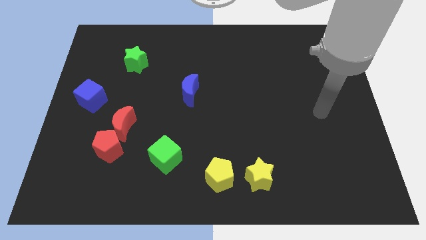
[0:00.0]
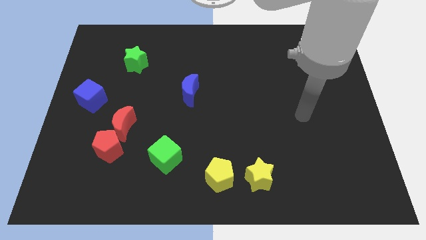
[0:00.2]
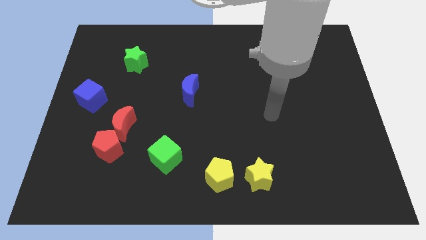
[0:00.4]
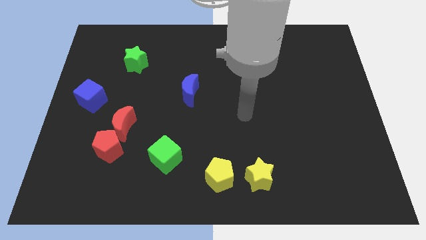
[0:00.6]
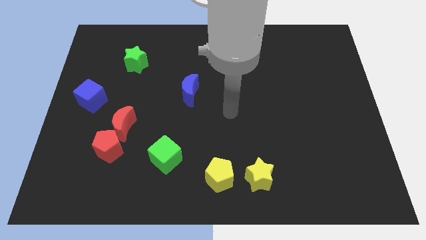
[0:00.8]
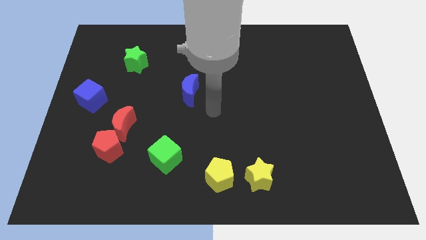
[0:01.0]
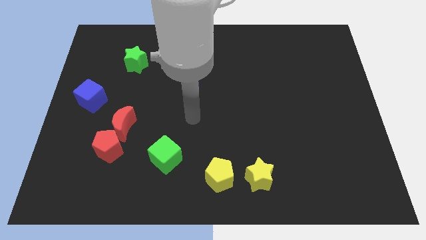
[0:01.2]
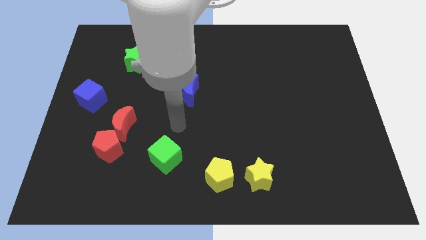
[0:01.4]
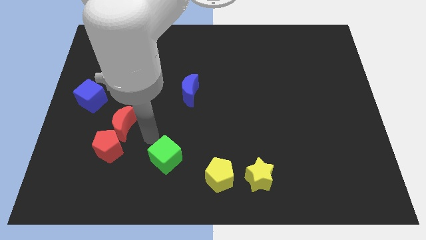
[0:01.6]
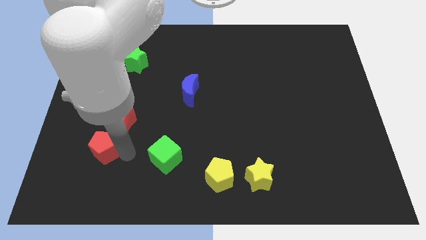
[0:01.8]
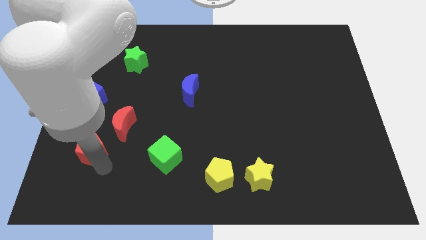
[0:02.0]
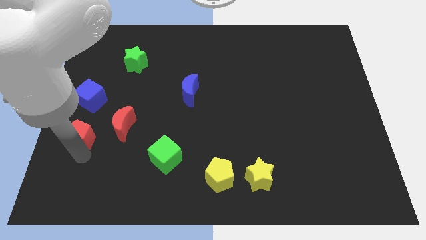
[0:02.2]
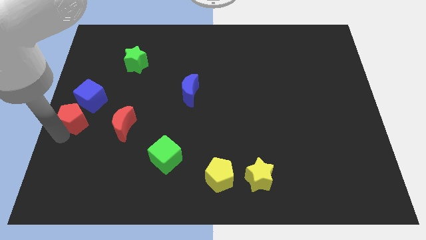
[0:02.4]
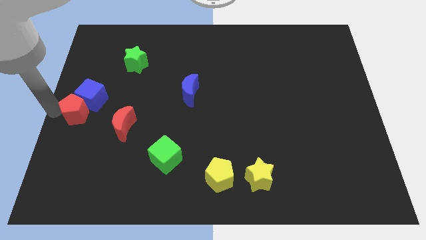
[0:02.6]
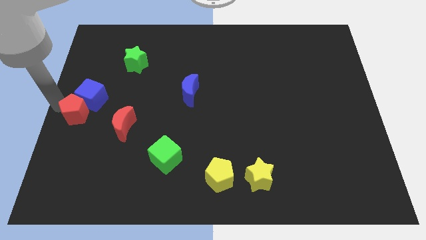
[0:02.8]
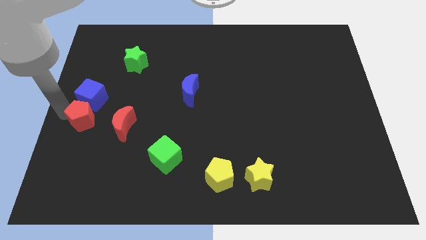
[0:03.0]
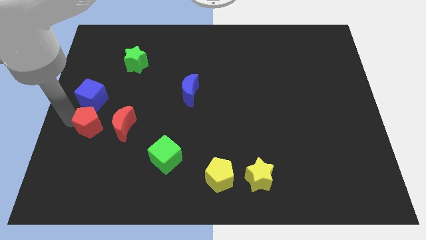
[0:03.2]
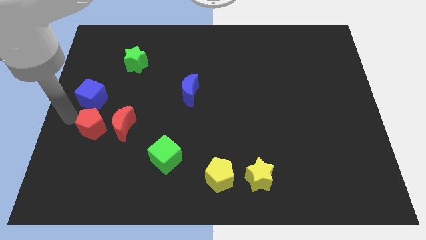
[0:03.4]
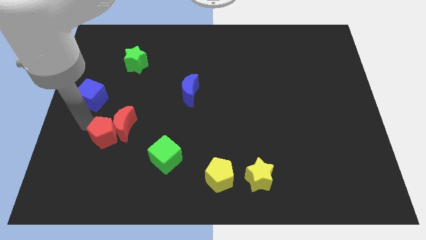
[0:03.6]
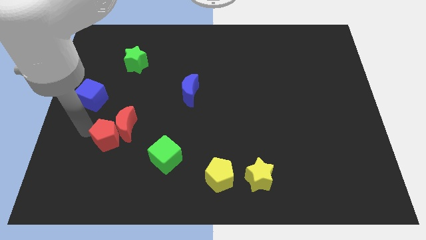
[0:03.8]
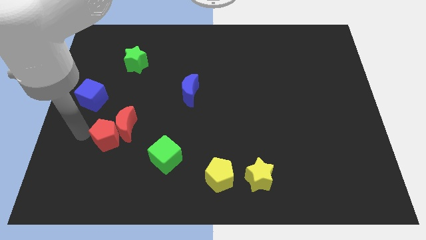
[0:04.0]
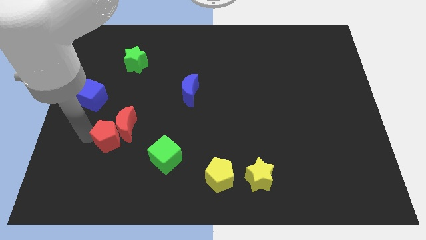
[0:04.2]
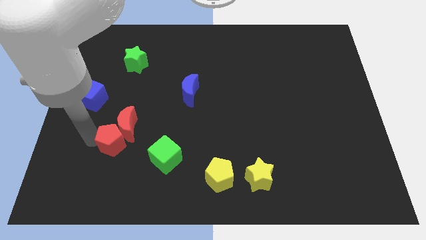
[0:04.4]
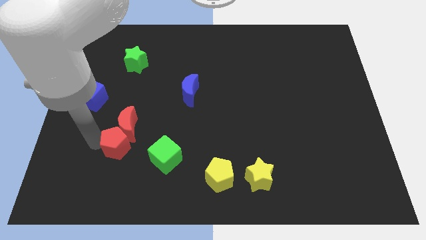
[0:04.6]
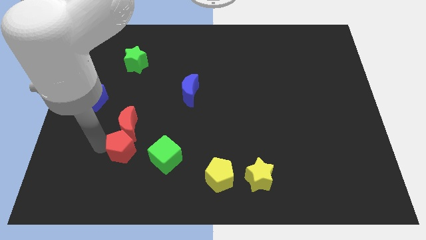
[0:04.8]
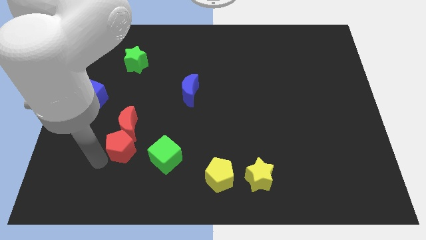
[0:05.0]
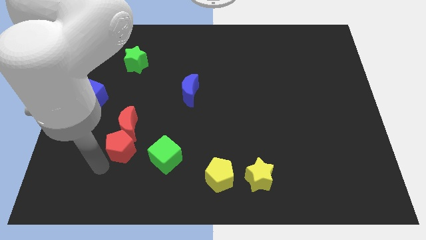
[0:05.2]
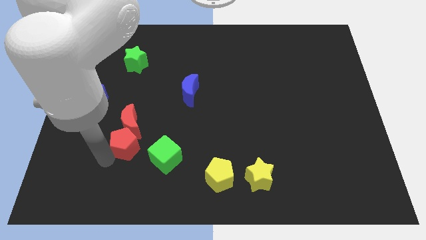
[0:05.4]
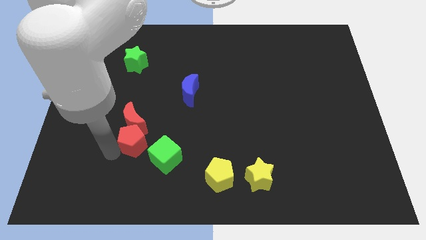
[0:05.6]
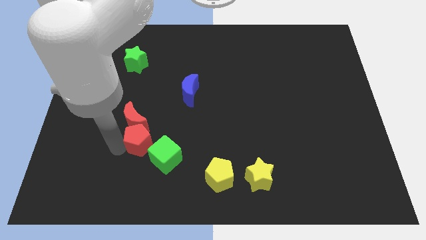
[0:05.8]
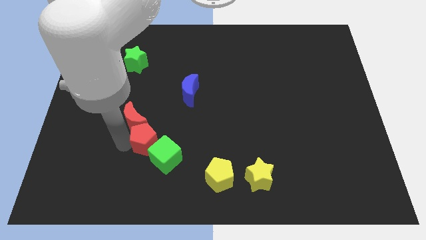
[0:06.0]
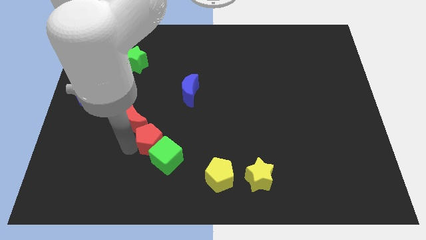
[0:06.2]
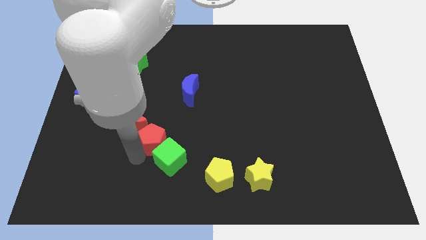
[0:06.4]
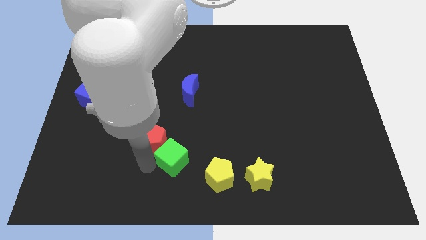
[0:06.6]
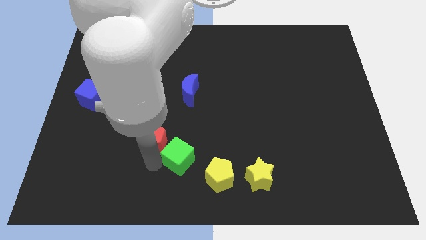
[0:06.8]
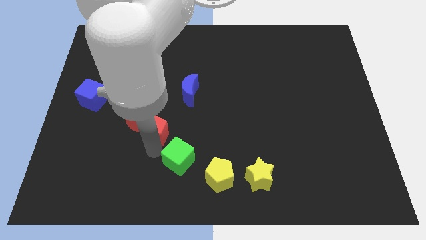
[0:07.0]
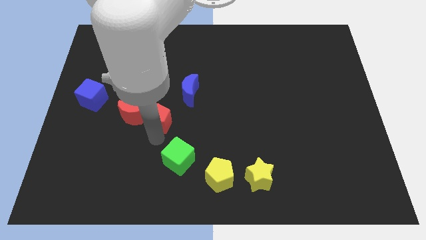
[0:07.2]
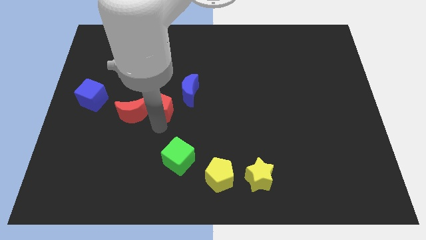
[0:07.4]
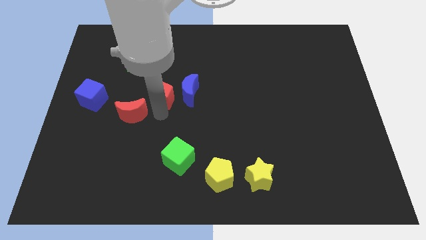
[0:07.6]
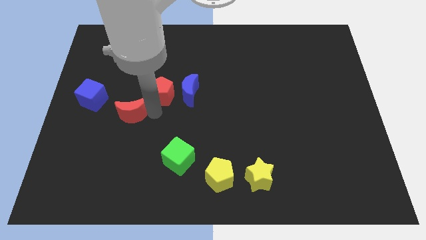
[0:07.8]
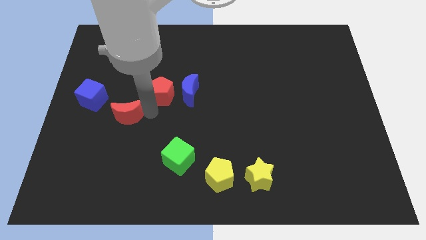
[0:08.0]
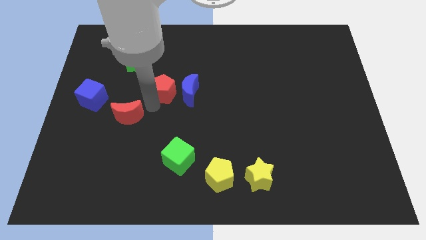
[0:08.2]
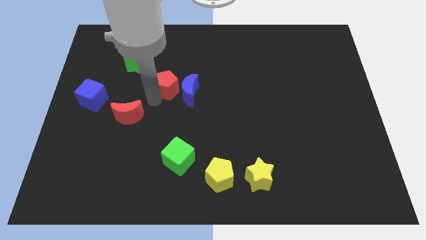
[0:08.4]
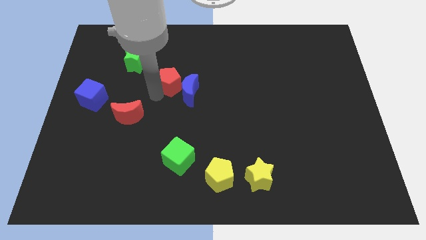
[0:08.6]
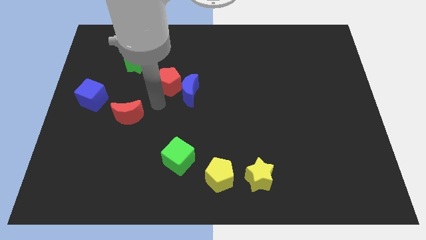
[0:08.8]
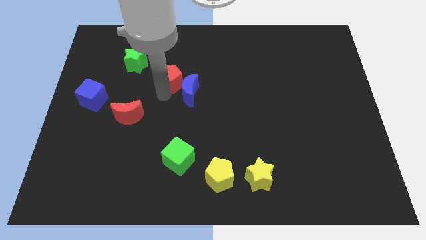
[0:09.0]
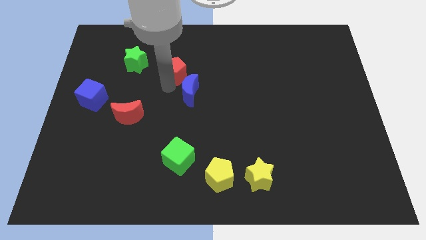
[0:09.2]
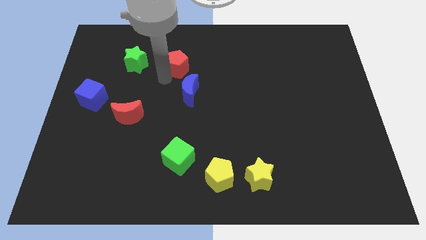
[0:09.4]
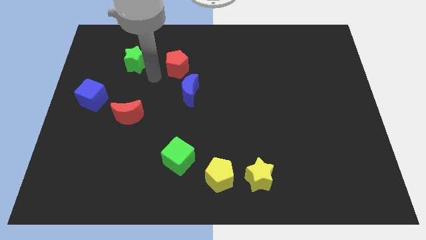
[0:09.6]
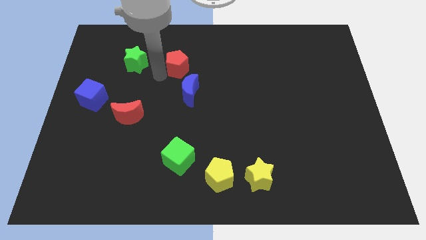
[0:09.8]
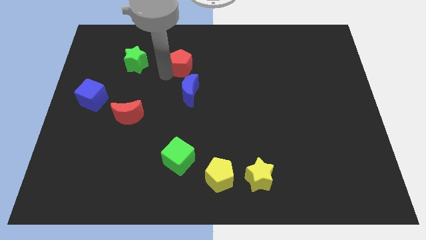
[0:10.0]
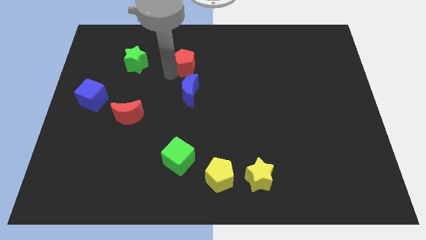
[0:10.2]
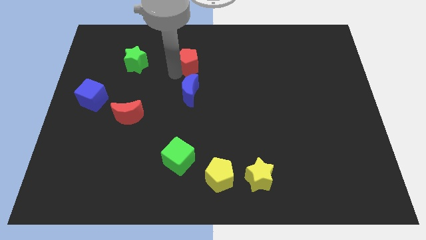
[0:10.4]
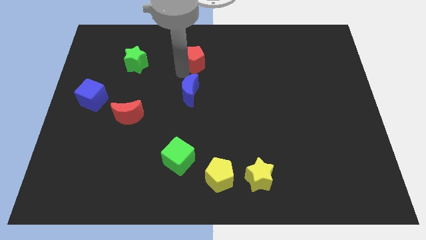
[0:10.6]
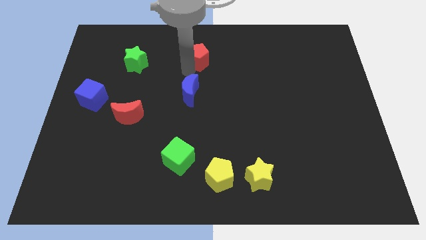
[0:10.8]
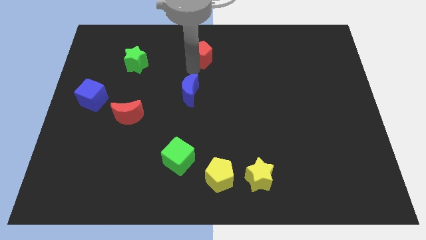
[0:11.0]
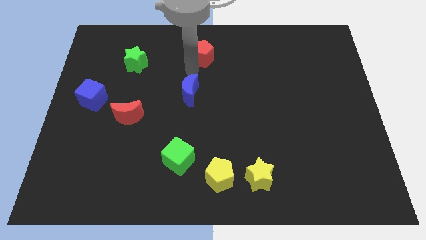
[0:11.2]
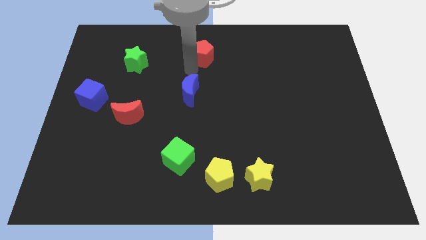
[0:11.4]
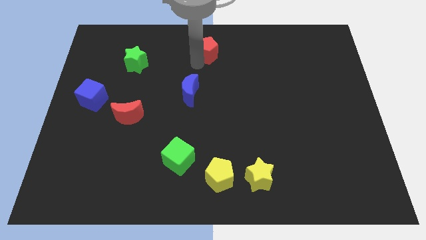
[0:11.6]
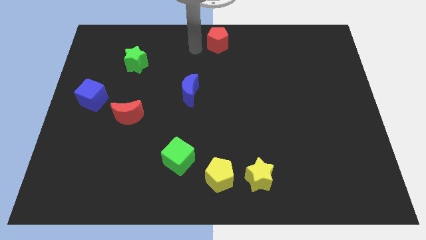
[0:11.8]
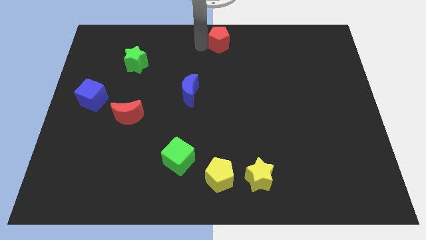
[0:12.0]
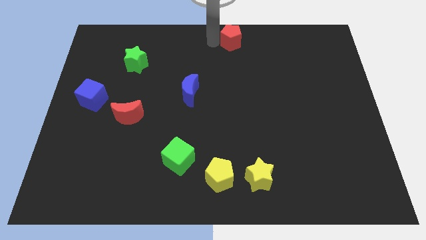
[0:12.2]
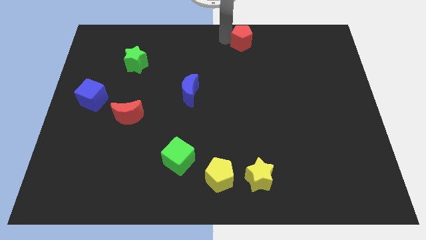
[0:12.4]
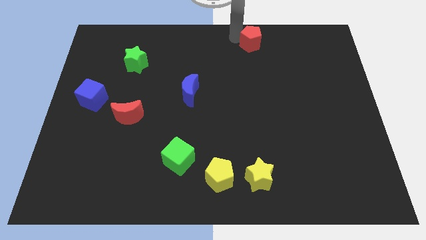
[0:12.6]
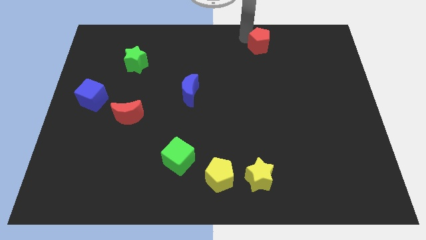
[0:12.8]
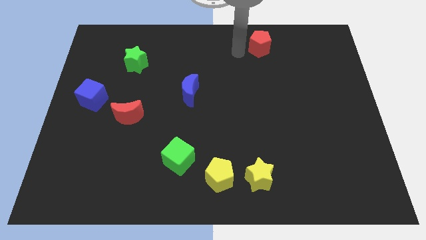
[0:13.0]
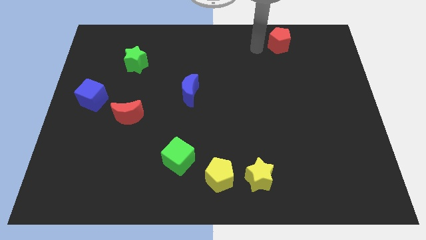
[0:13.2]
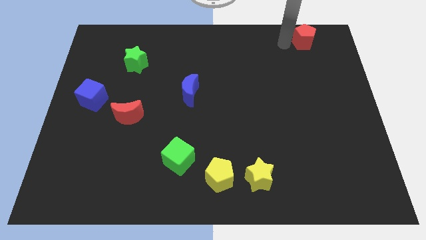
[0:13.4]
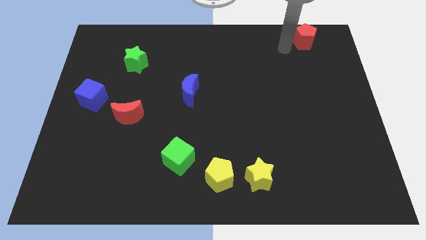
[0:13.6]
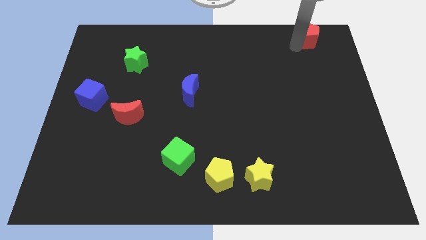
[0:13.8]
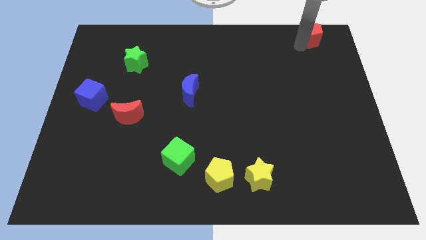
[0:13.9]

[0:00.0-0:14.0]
put the red pentagon to the top right corner
